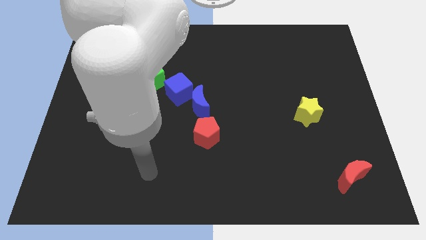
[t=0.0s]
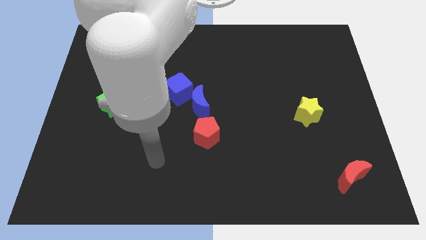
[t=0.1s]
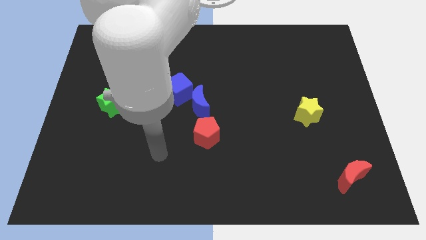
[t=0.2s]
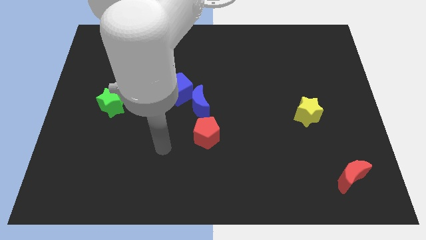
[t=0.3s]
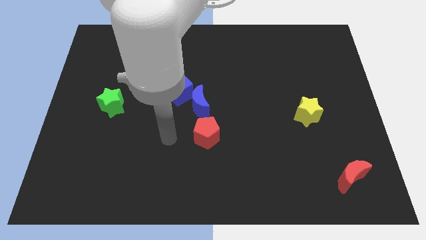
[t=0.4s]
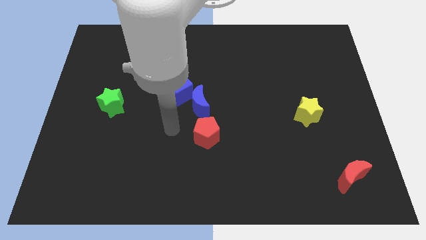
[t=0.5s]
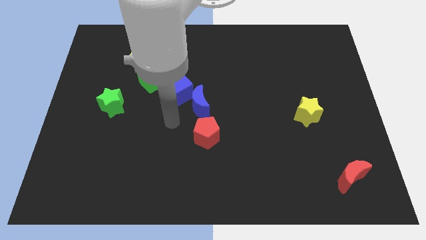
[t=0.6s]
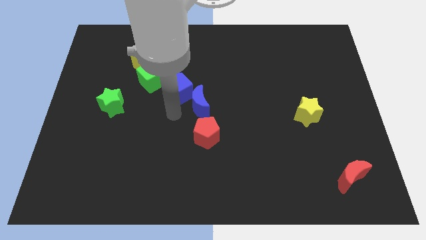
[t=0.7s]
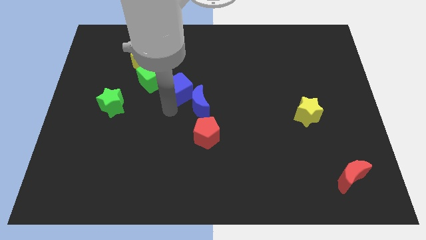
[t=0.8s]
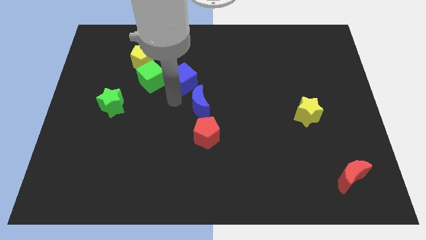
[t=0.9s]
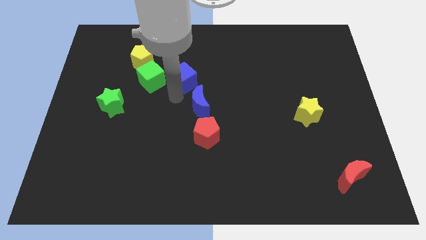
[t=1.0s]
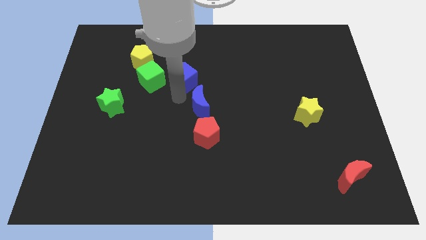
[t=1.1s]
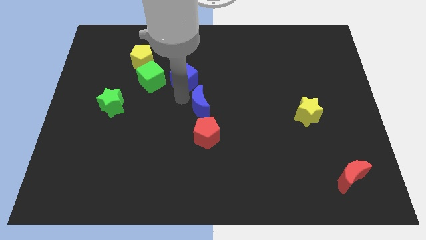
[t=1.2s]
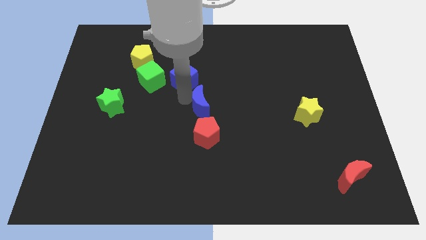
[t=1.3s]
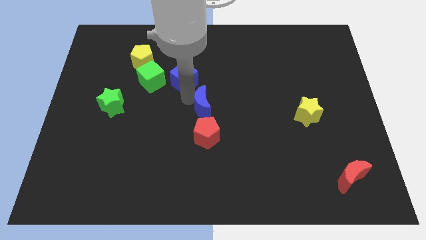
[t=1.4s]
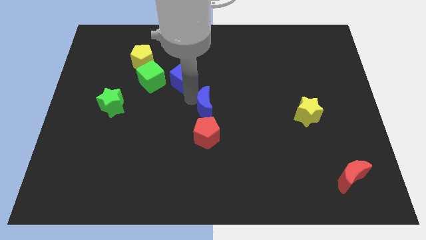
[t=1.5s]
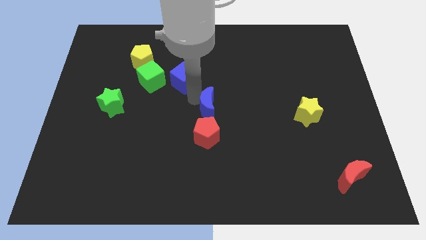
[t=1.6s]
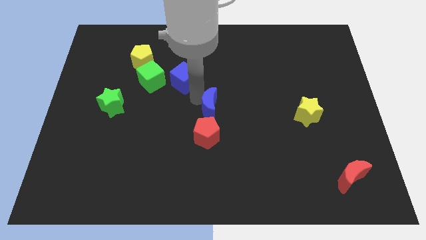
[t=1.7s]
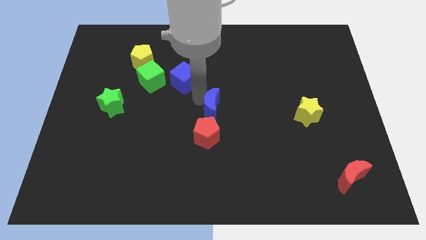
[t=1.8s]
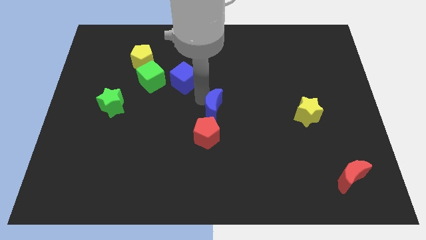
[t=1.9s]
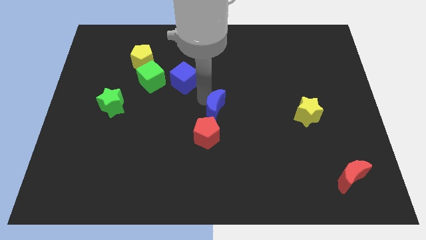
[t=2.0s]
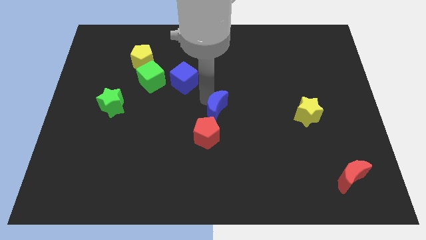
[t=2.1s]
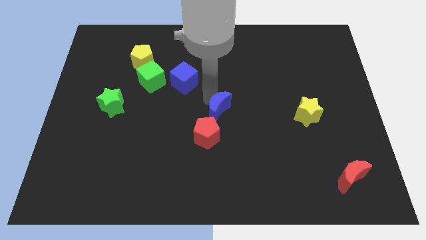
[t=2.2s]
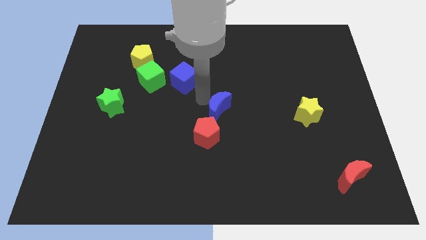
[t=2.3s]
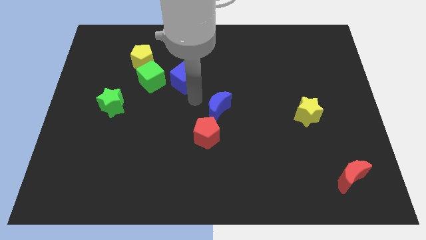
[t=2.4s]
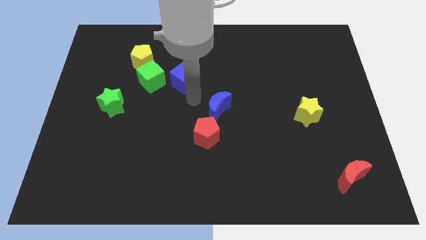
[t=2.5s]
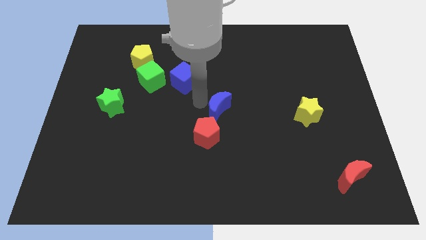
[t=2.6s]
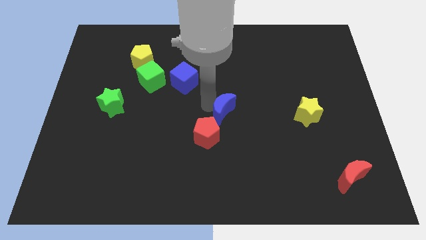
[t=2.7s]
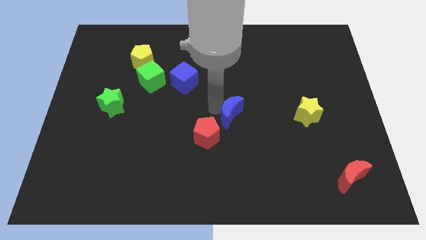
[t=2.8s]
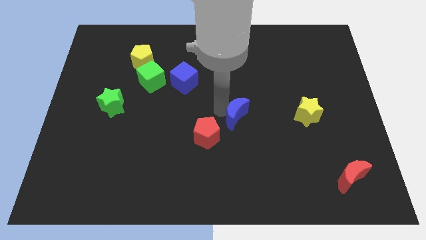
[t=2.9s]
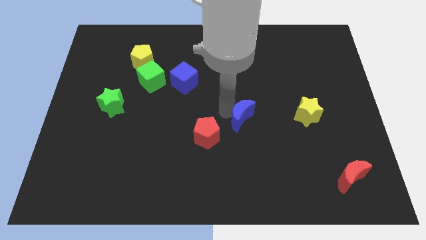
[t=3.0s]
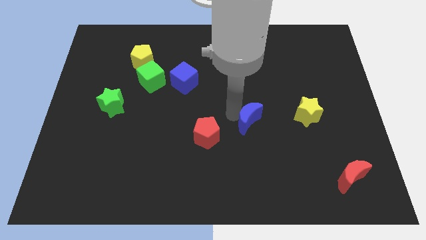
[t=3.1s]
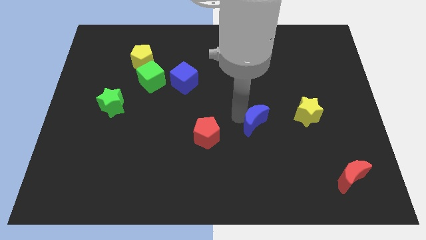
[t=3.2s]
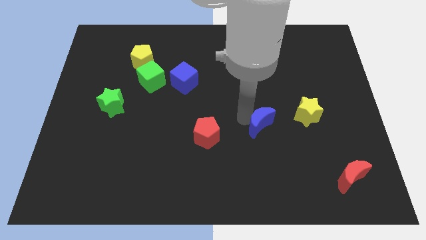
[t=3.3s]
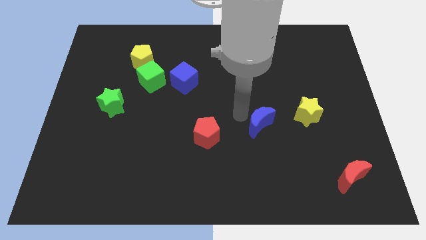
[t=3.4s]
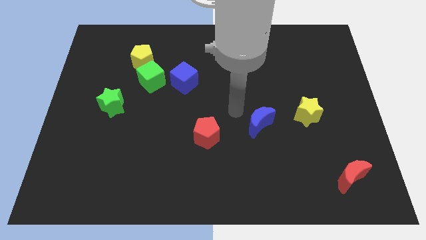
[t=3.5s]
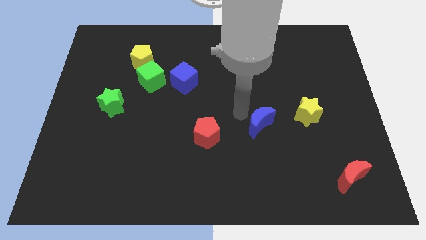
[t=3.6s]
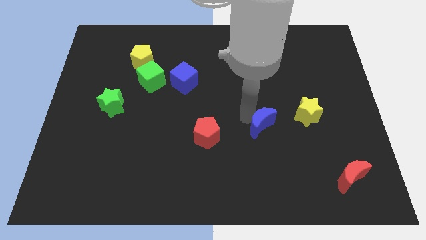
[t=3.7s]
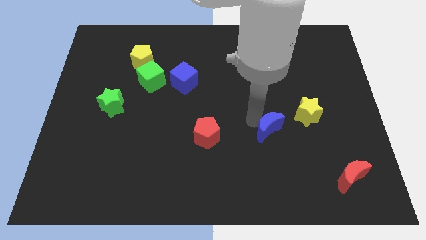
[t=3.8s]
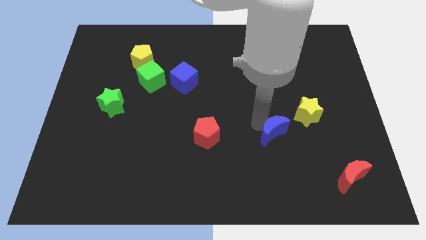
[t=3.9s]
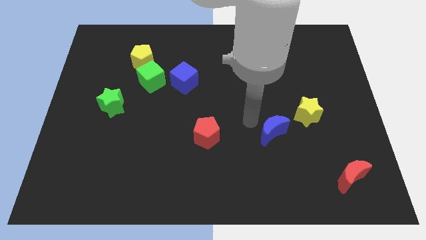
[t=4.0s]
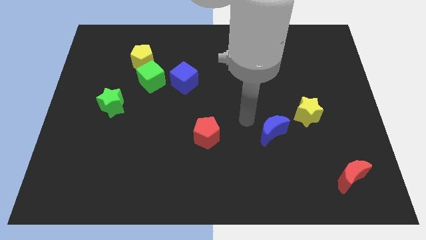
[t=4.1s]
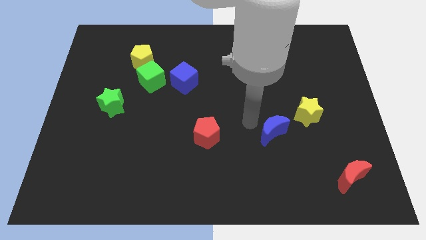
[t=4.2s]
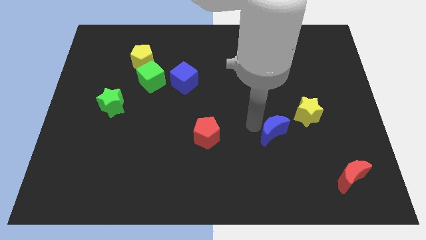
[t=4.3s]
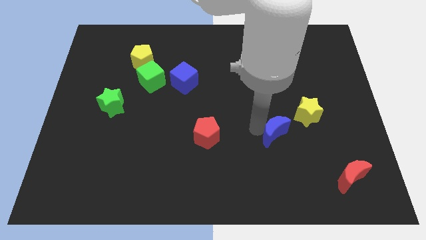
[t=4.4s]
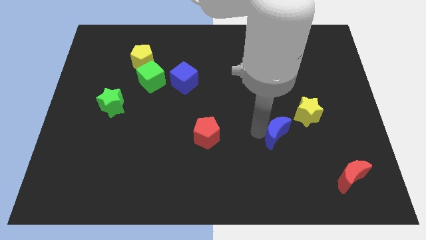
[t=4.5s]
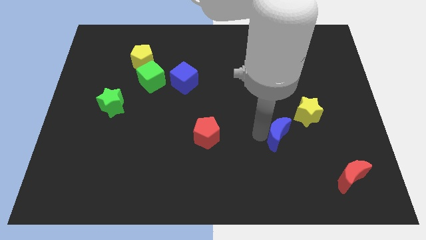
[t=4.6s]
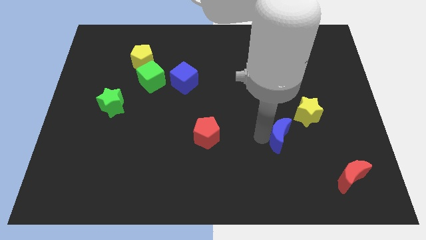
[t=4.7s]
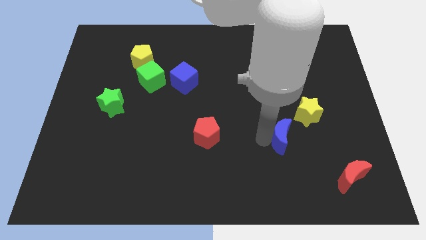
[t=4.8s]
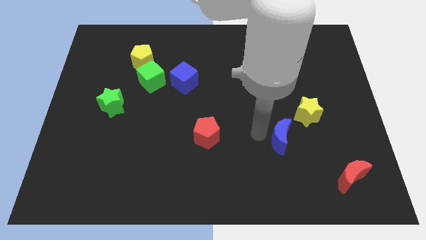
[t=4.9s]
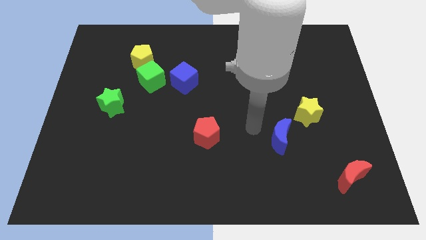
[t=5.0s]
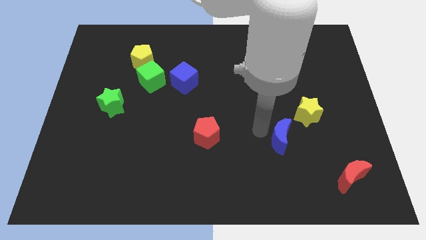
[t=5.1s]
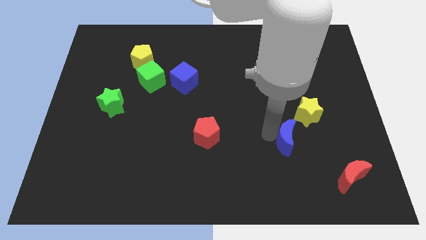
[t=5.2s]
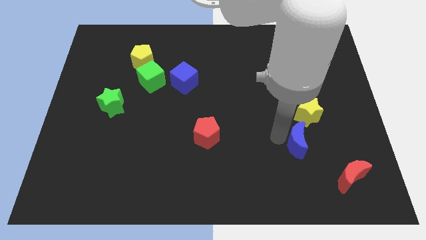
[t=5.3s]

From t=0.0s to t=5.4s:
push the blue moon diagonally up and to the left of the red moon
